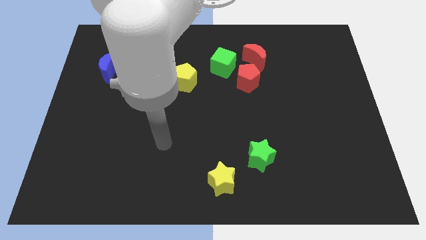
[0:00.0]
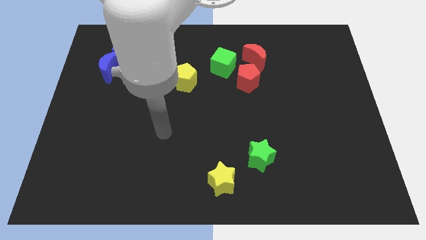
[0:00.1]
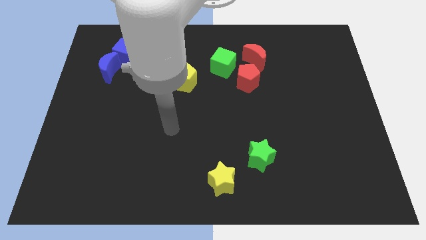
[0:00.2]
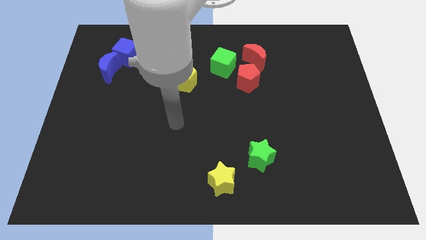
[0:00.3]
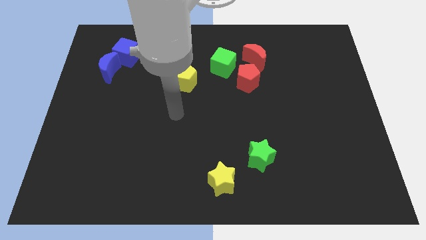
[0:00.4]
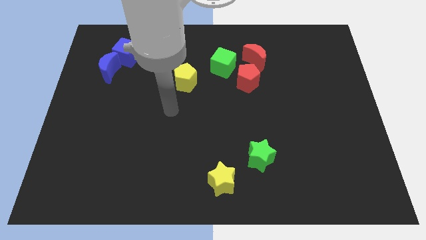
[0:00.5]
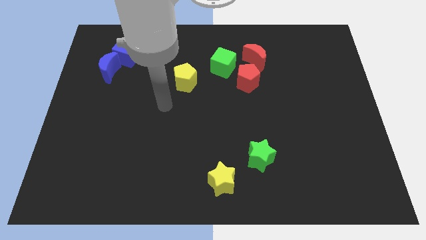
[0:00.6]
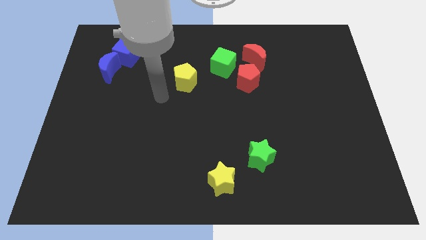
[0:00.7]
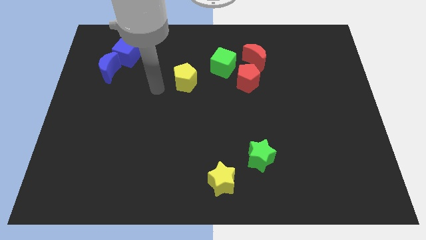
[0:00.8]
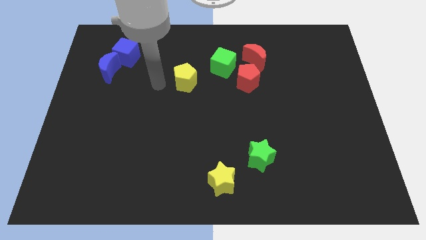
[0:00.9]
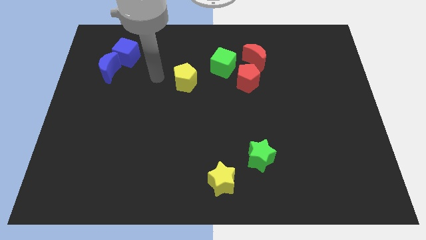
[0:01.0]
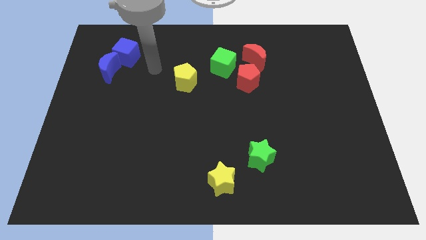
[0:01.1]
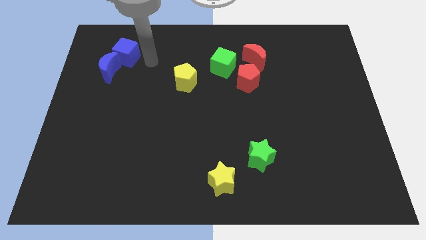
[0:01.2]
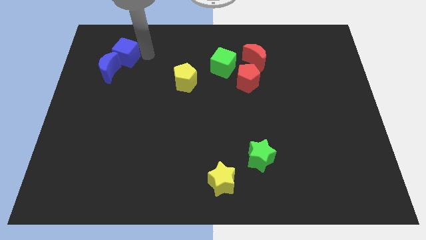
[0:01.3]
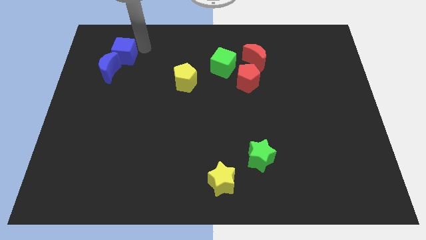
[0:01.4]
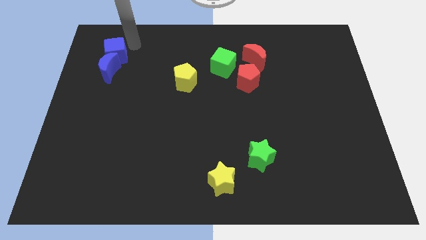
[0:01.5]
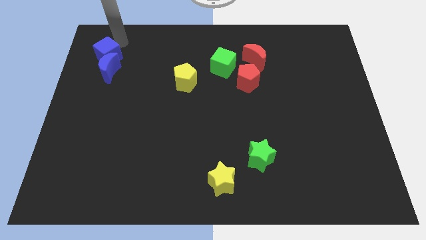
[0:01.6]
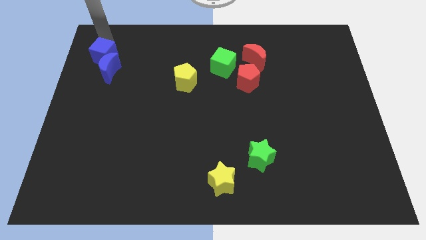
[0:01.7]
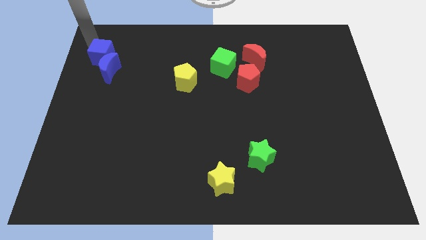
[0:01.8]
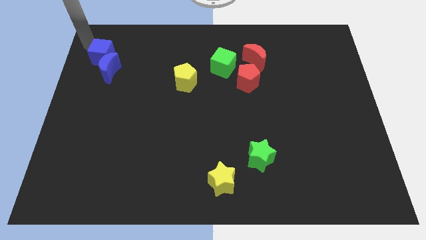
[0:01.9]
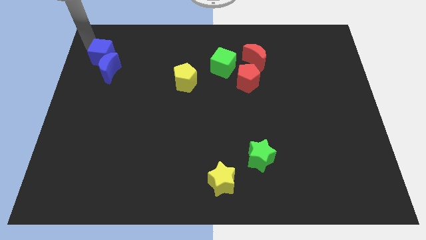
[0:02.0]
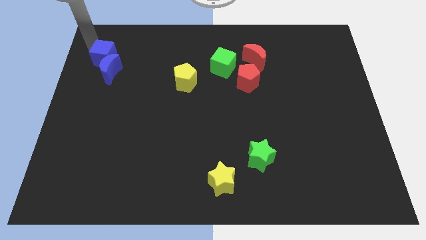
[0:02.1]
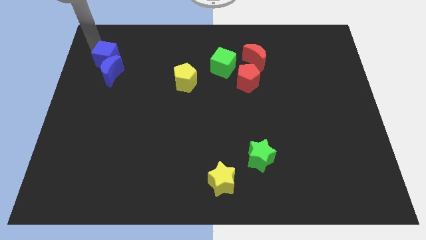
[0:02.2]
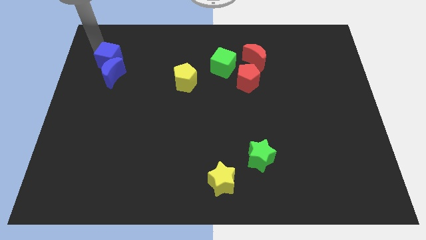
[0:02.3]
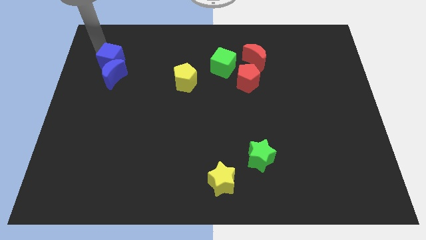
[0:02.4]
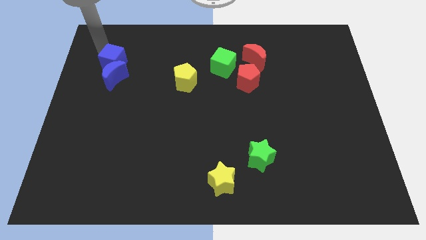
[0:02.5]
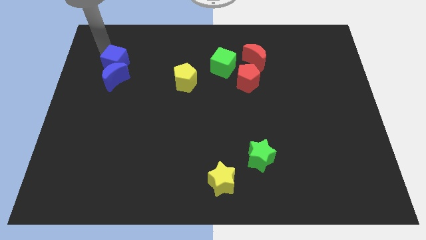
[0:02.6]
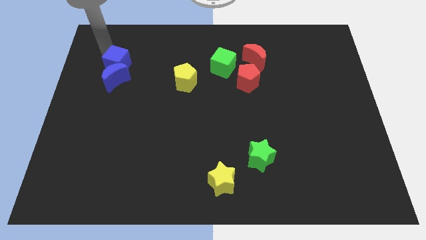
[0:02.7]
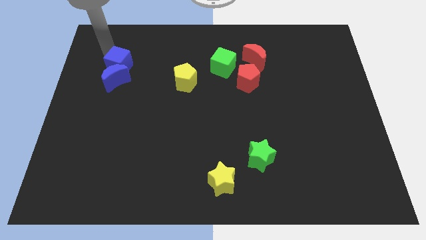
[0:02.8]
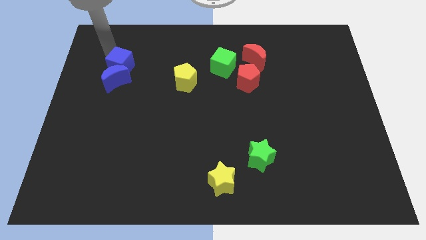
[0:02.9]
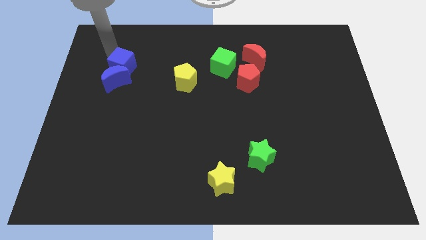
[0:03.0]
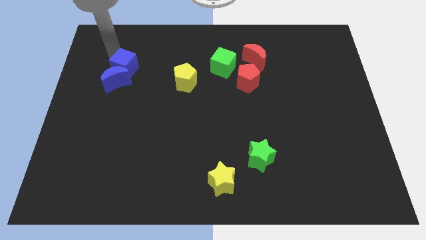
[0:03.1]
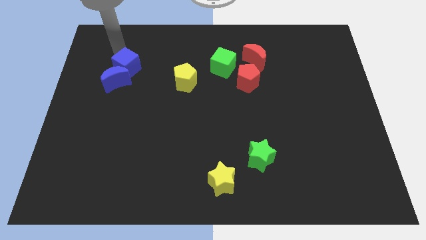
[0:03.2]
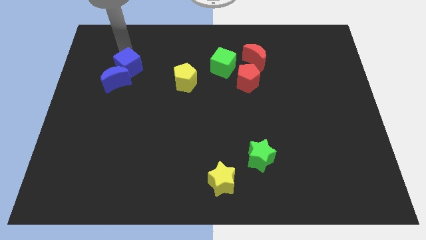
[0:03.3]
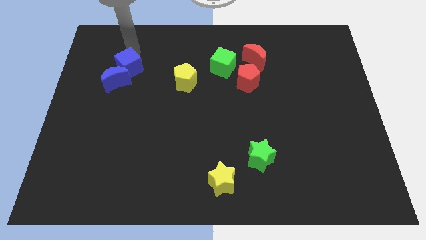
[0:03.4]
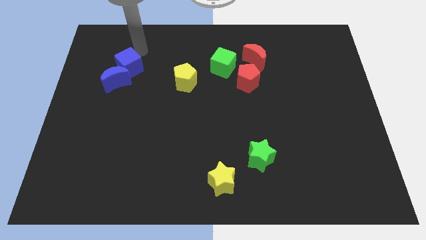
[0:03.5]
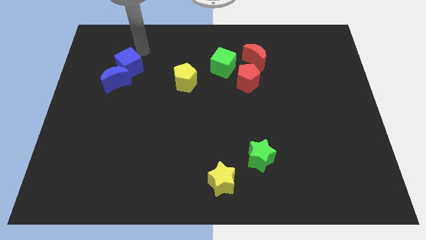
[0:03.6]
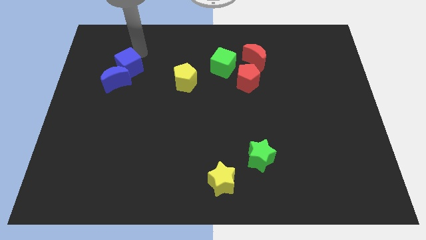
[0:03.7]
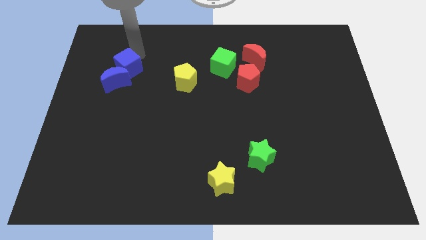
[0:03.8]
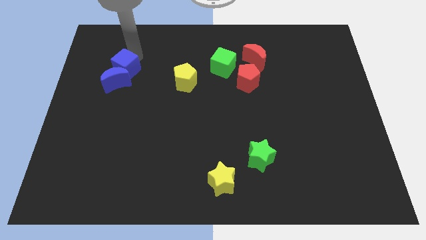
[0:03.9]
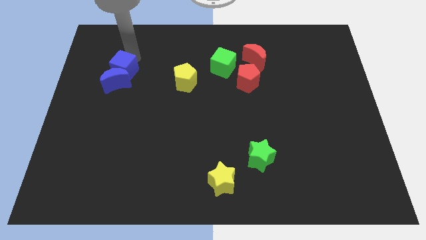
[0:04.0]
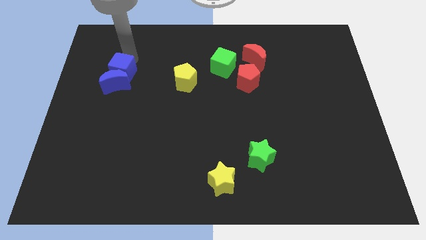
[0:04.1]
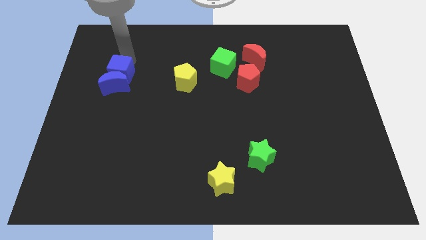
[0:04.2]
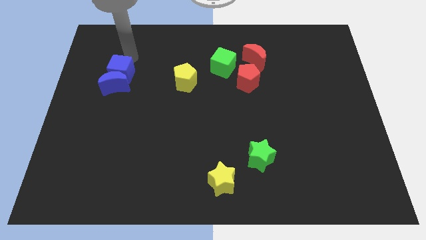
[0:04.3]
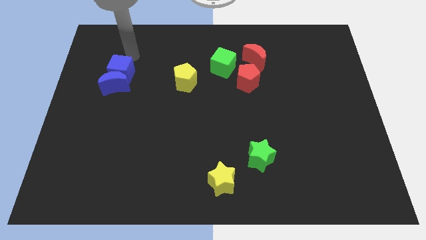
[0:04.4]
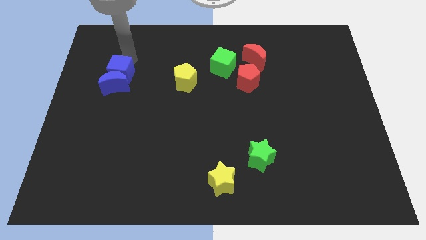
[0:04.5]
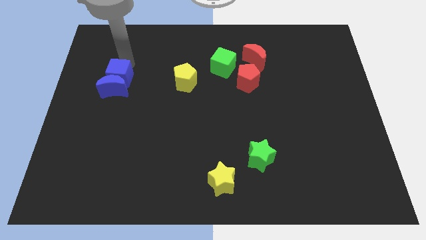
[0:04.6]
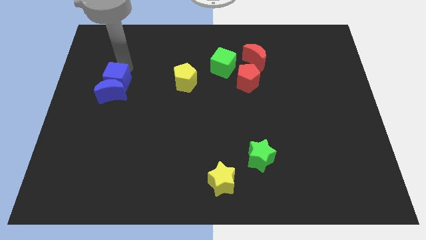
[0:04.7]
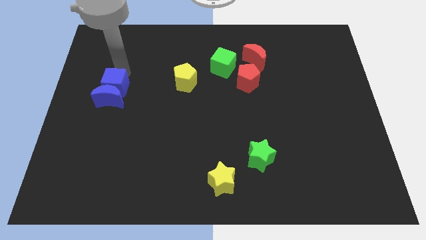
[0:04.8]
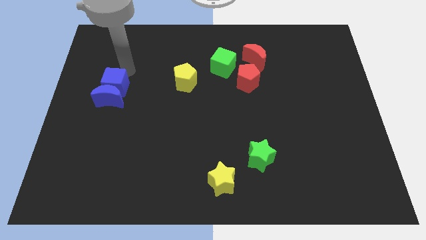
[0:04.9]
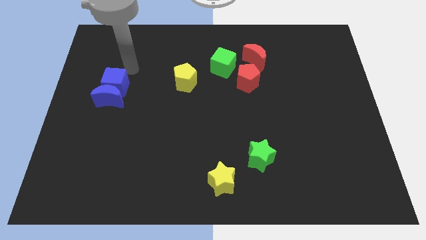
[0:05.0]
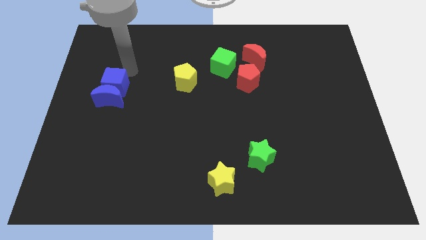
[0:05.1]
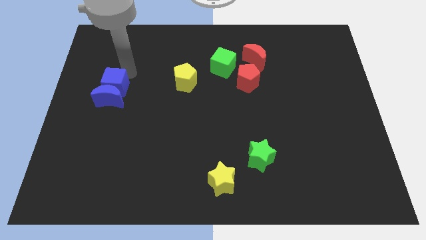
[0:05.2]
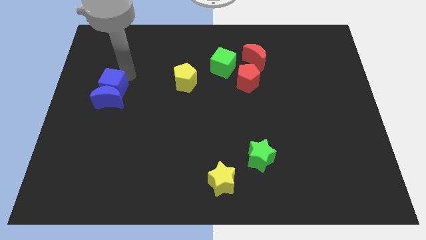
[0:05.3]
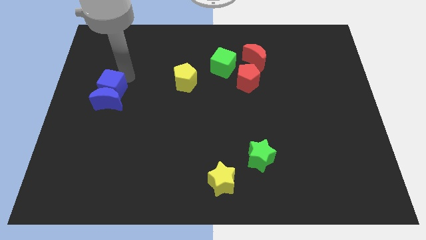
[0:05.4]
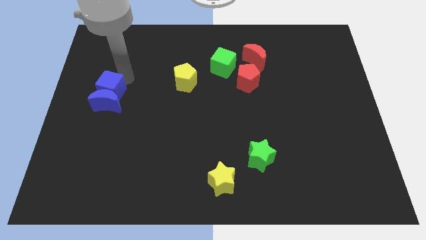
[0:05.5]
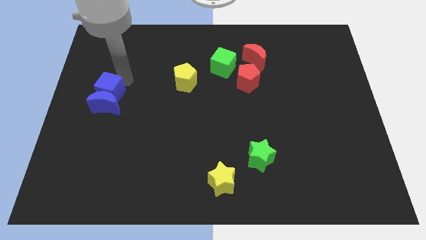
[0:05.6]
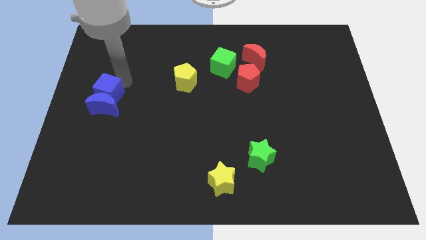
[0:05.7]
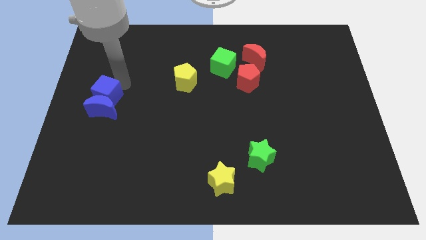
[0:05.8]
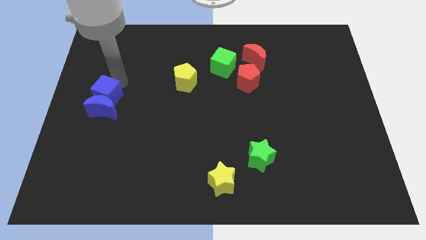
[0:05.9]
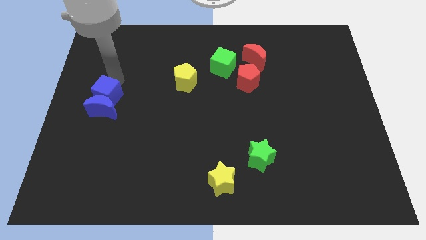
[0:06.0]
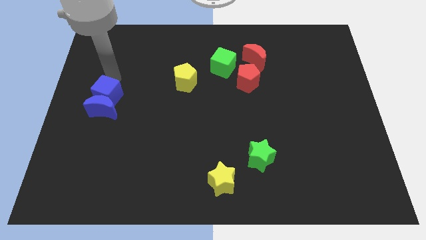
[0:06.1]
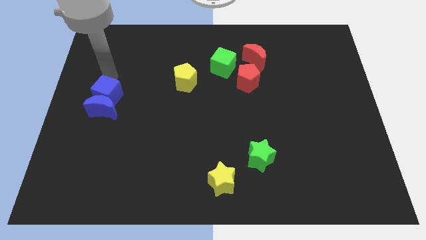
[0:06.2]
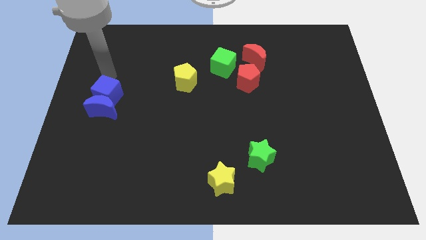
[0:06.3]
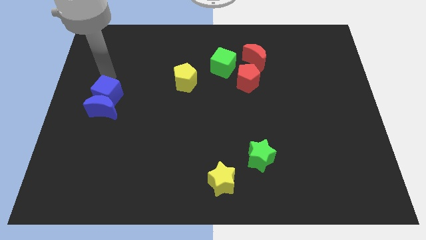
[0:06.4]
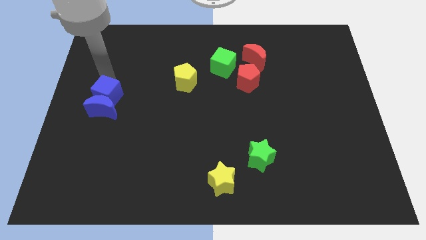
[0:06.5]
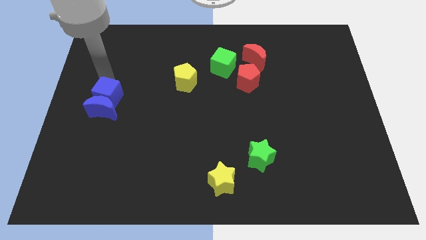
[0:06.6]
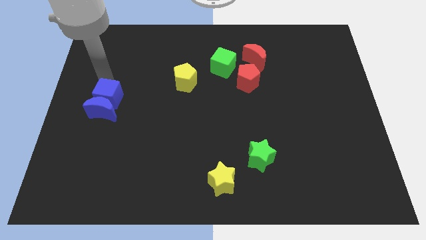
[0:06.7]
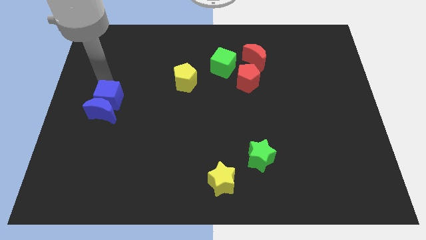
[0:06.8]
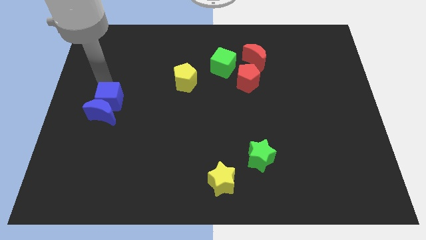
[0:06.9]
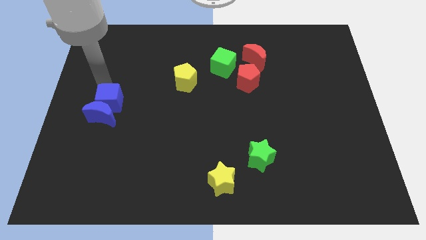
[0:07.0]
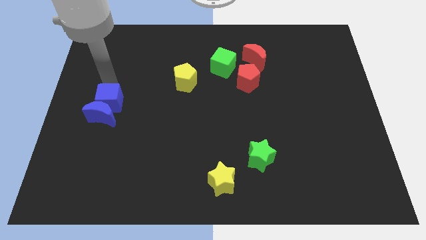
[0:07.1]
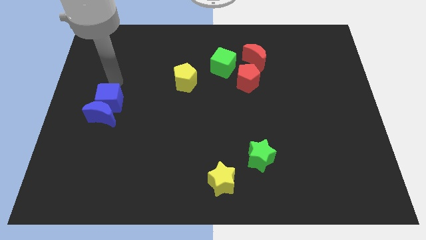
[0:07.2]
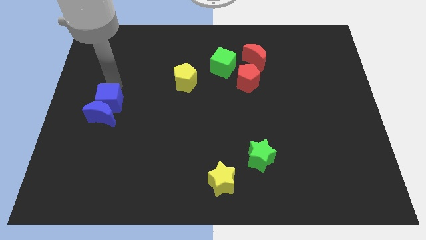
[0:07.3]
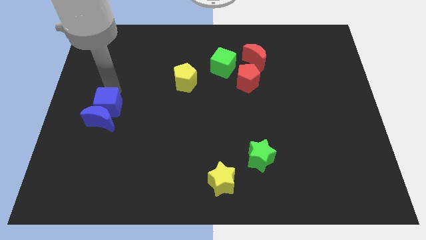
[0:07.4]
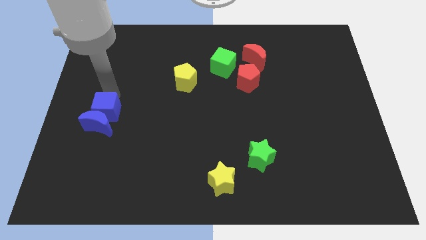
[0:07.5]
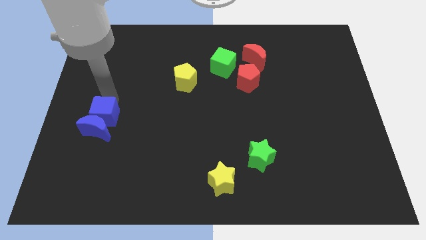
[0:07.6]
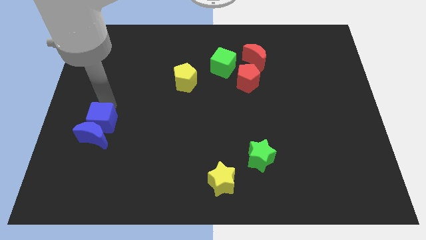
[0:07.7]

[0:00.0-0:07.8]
push the blue cube downwards

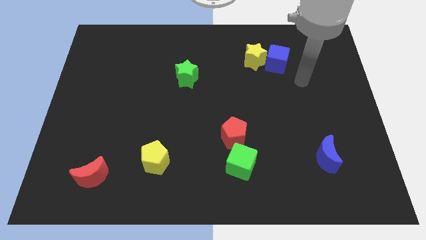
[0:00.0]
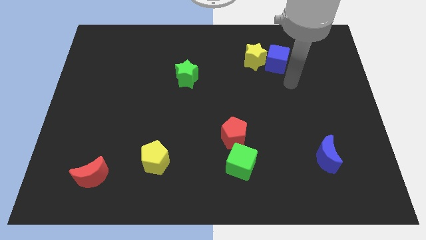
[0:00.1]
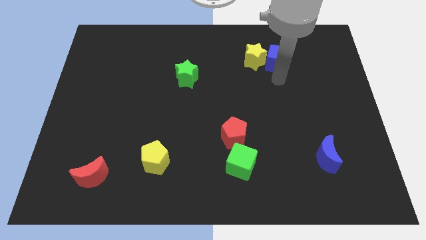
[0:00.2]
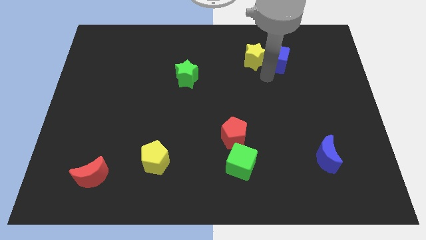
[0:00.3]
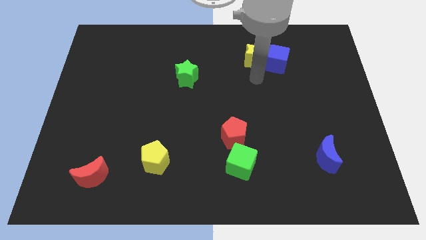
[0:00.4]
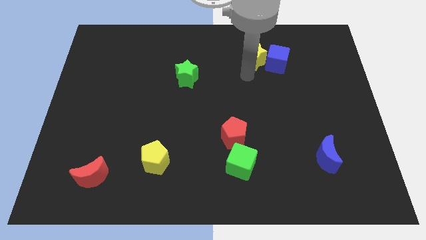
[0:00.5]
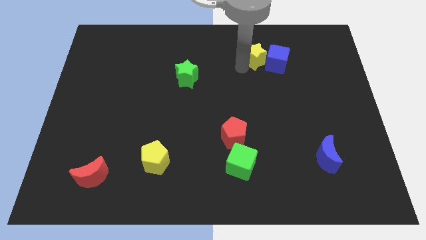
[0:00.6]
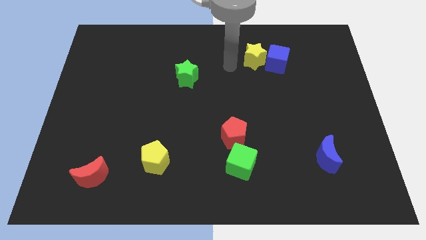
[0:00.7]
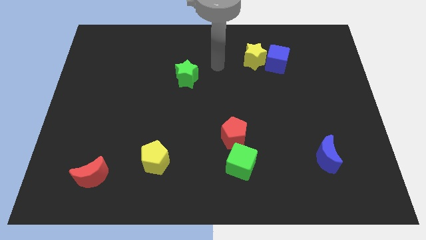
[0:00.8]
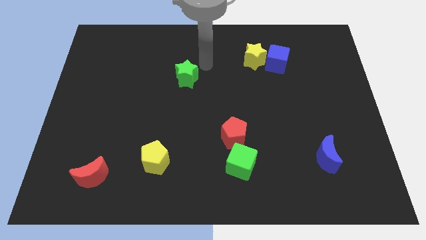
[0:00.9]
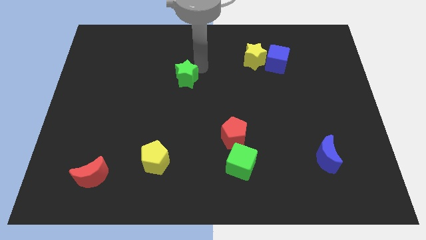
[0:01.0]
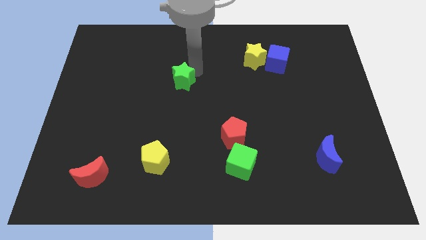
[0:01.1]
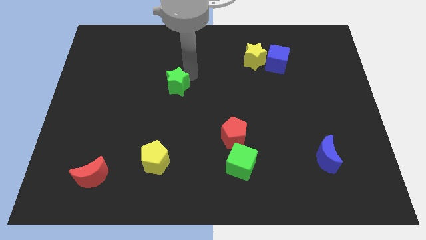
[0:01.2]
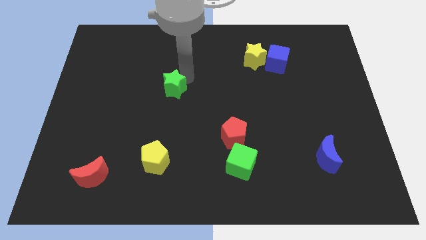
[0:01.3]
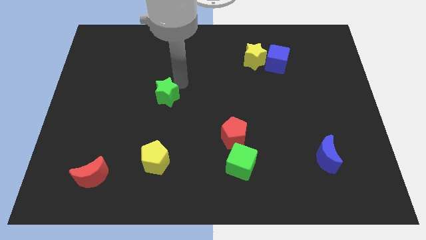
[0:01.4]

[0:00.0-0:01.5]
push the green star somewhat downwards and left
